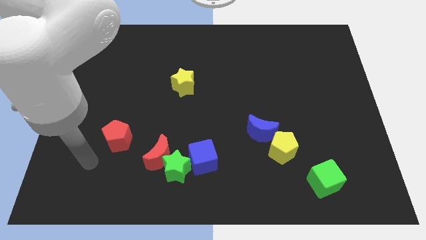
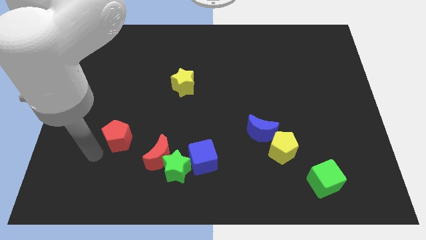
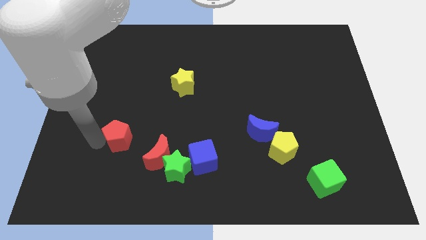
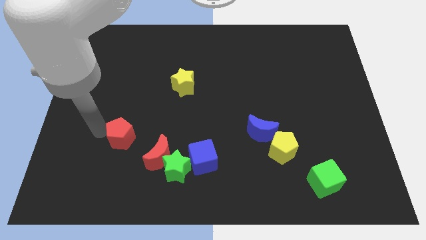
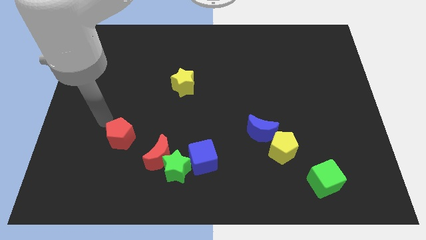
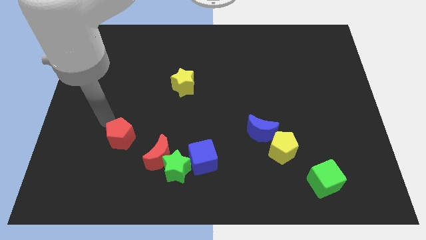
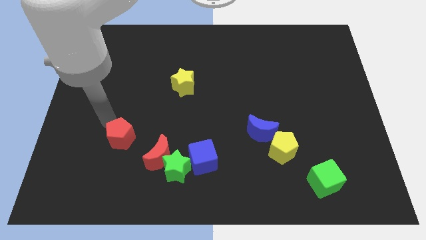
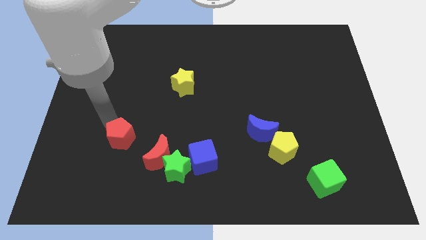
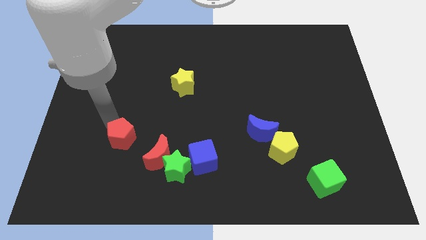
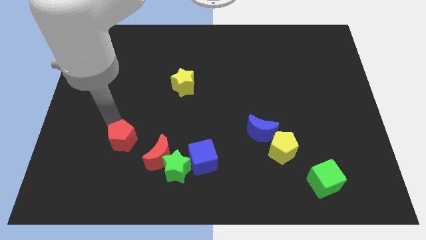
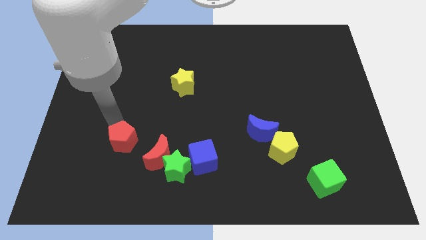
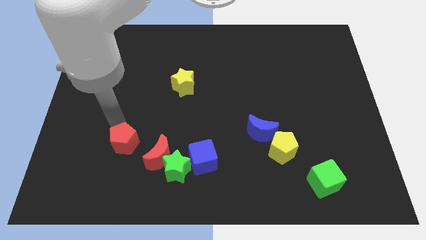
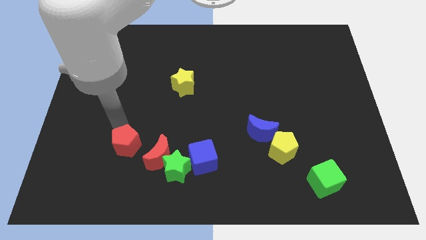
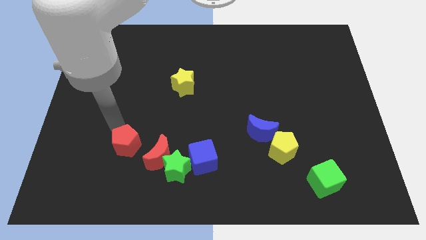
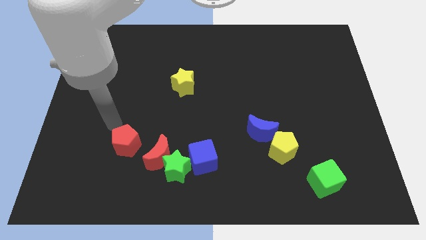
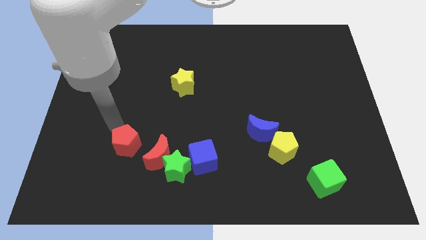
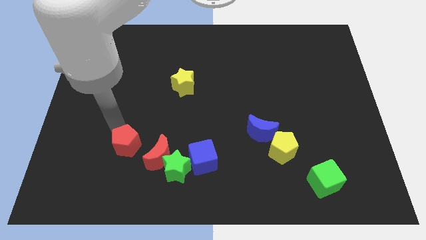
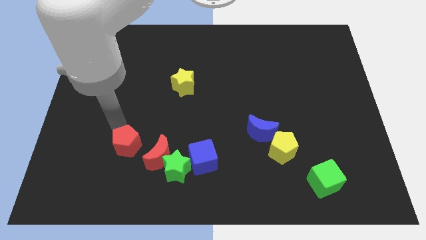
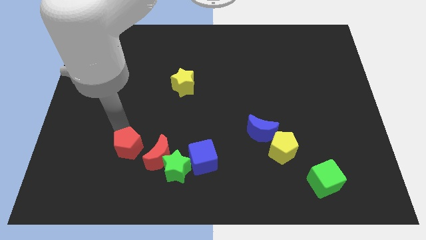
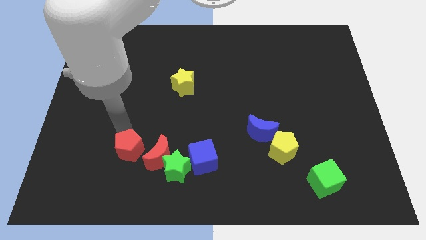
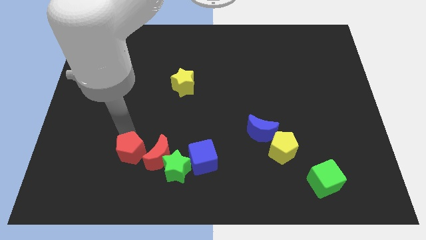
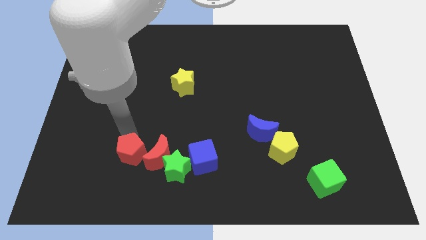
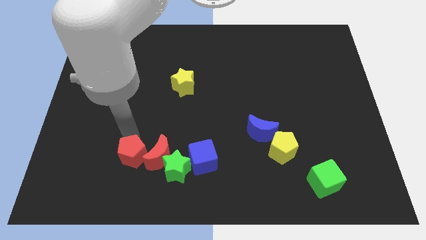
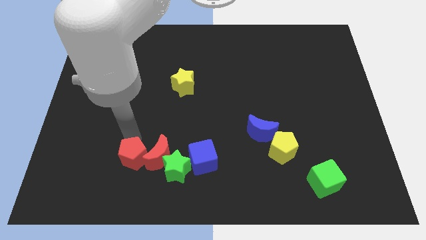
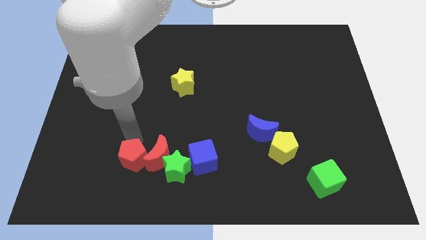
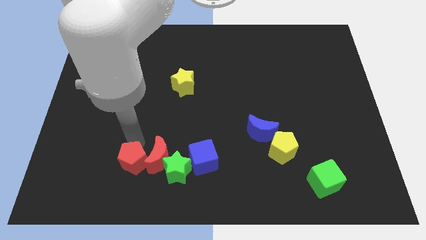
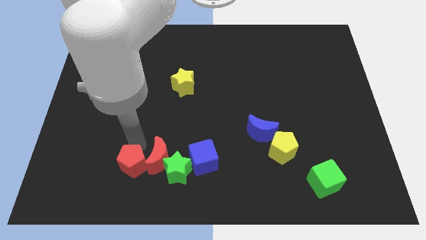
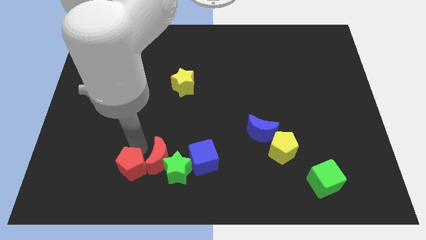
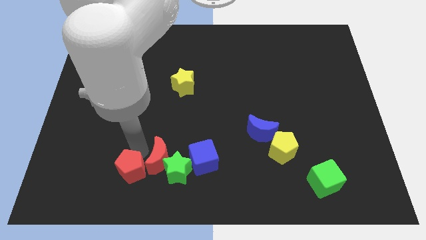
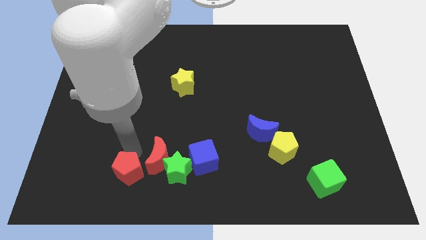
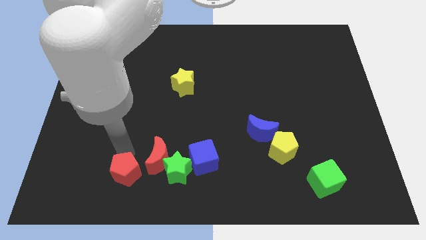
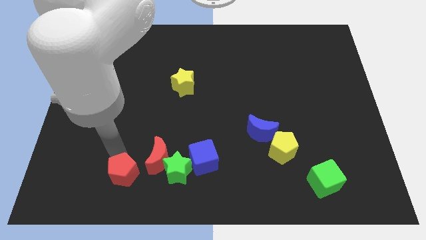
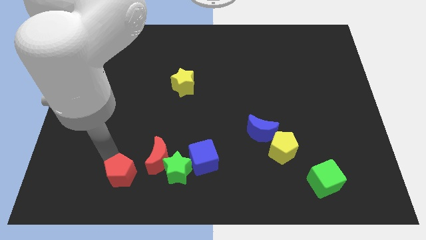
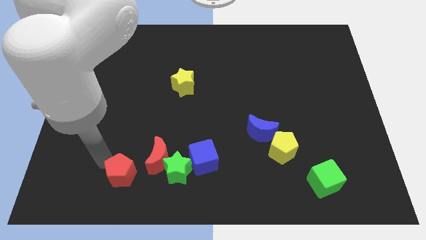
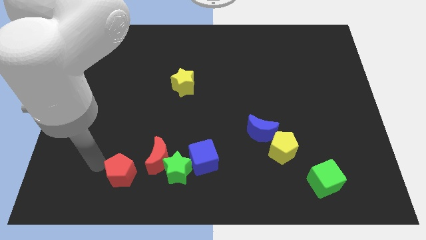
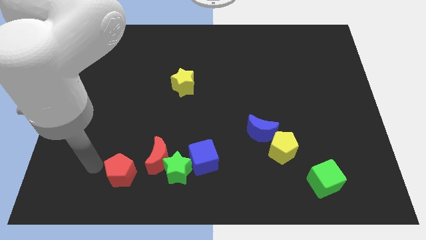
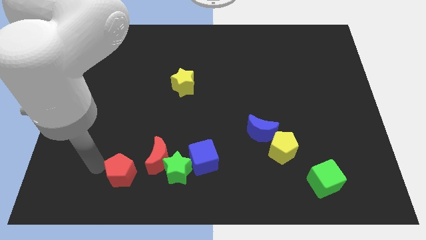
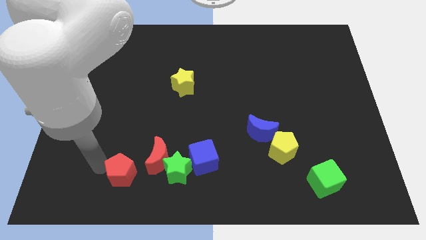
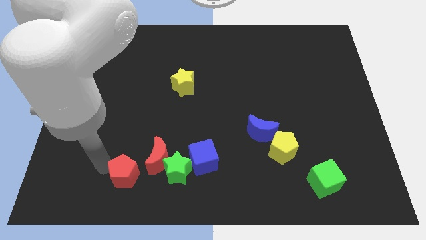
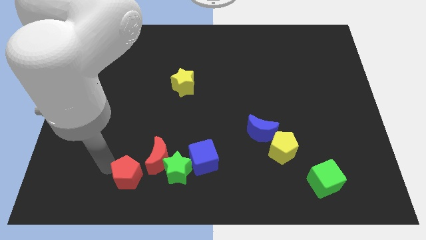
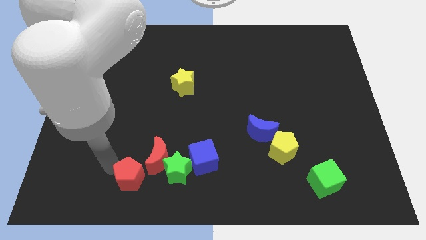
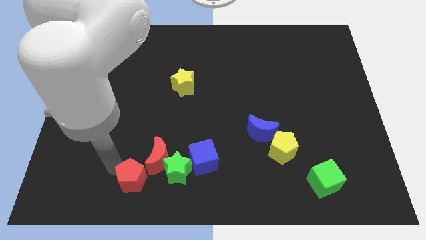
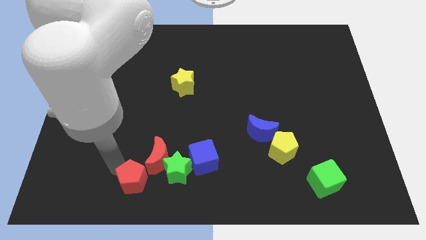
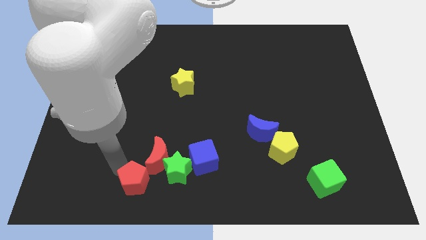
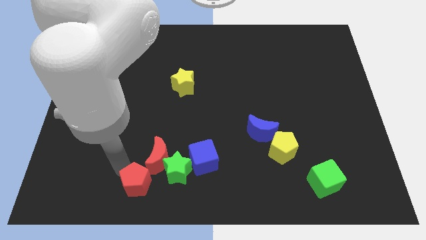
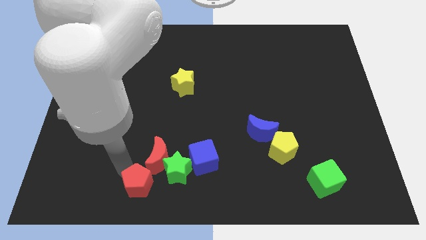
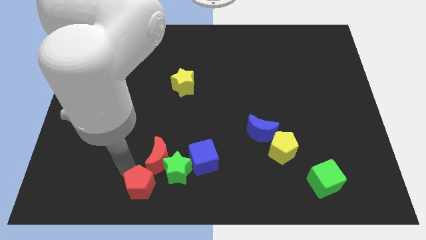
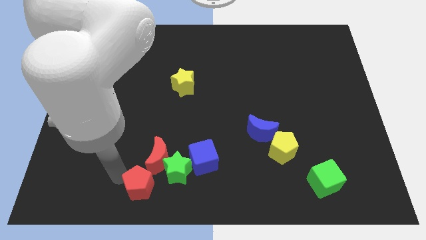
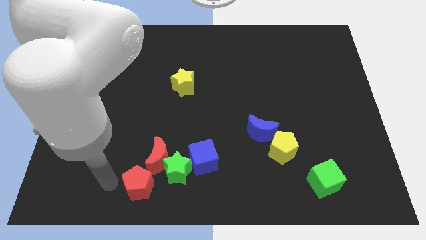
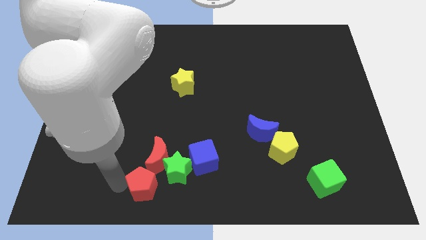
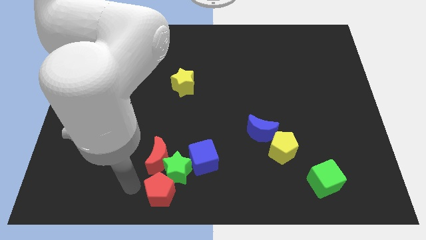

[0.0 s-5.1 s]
move the red pentagon to the bottom side

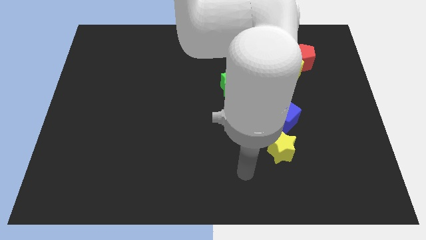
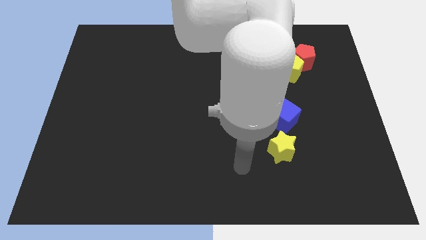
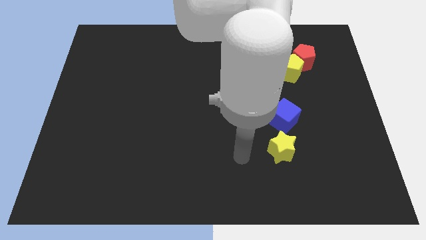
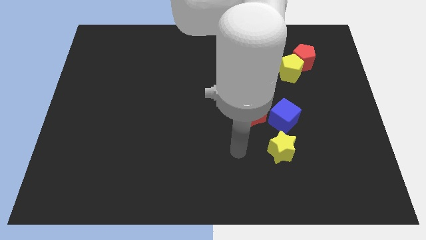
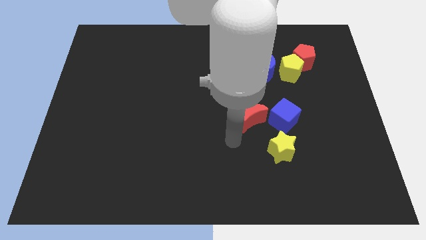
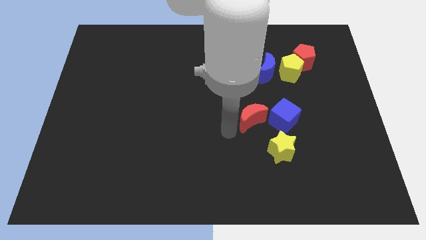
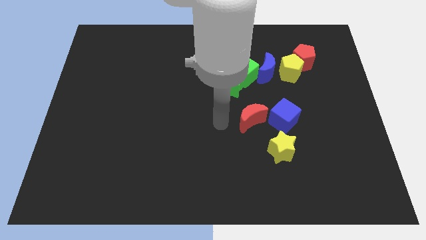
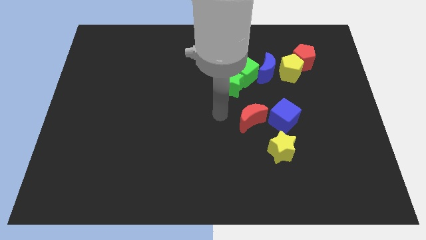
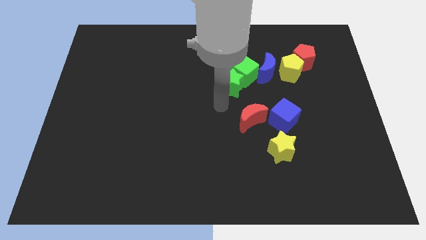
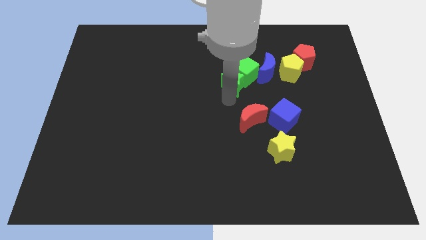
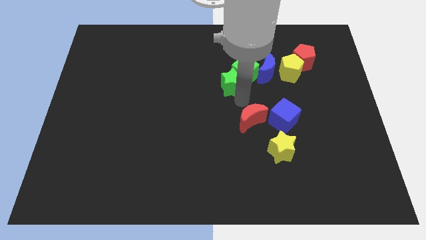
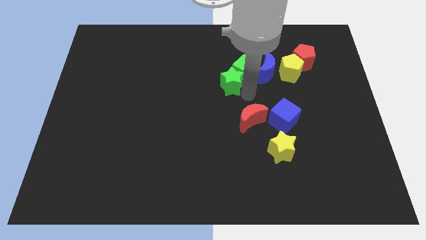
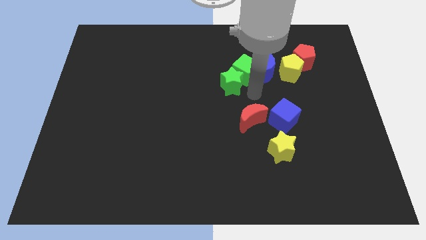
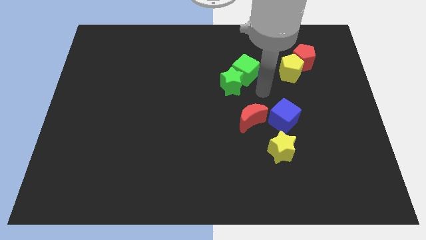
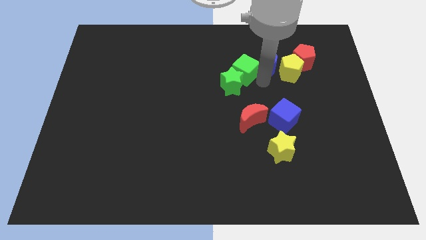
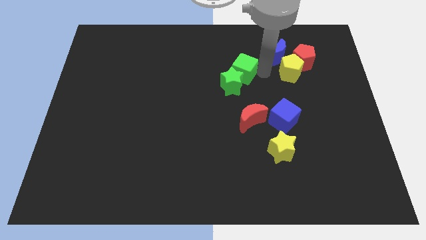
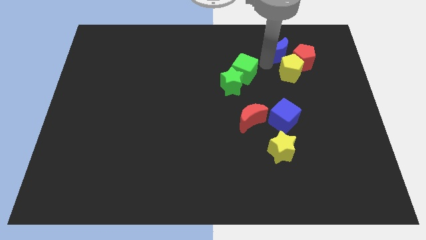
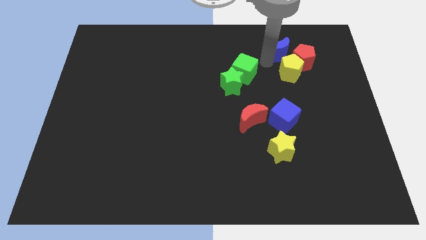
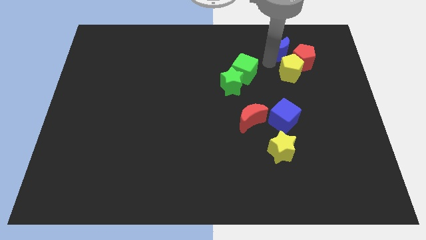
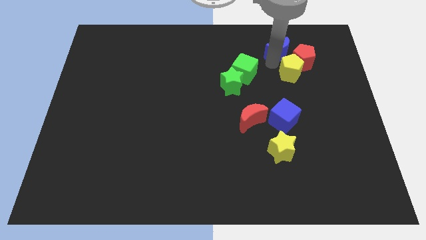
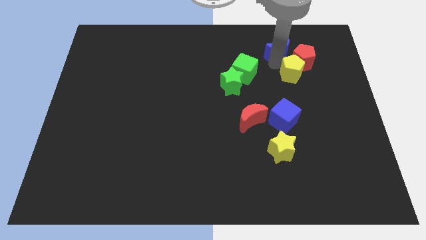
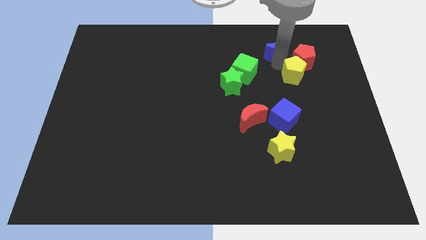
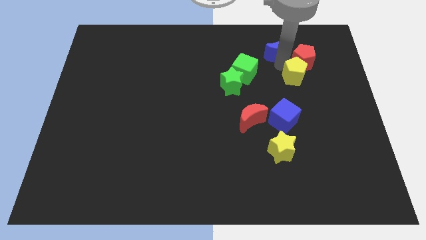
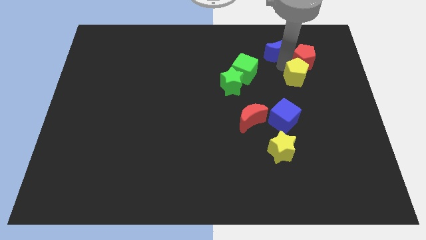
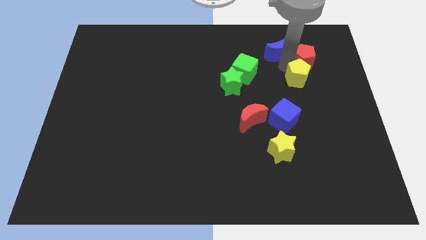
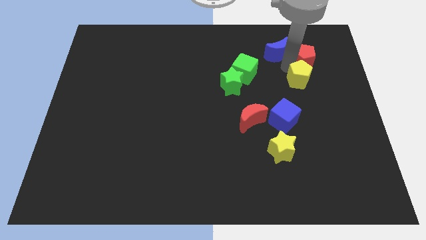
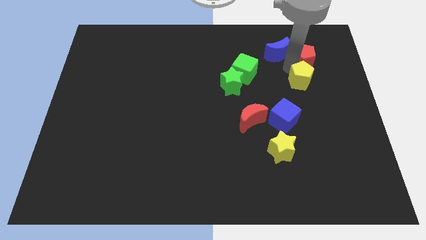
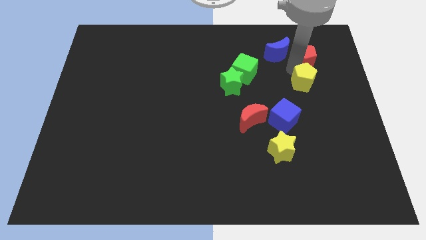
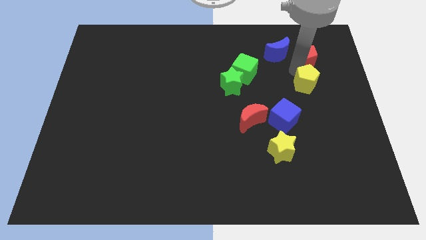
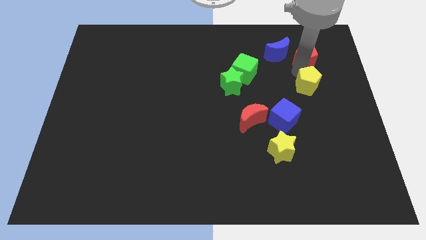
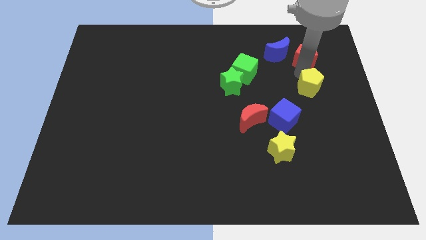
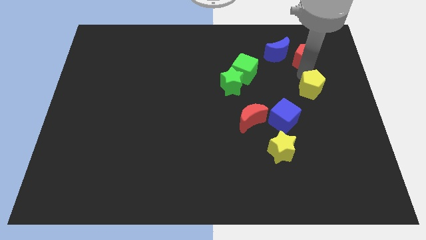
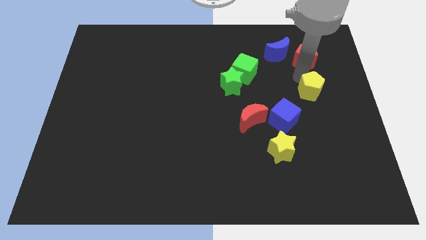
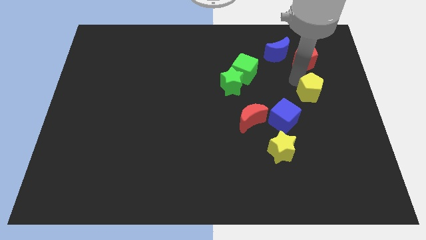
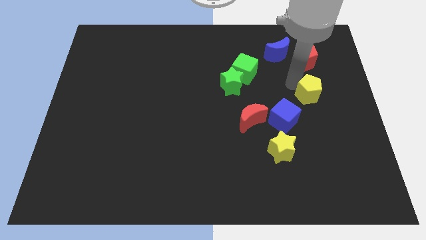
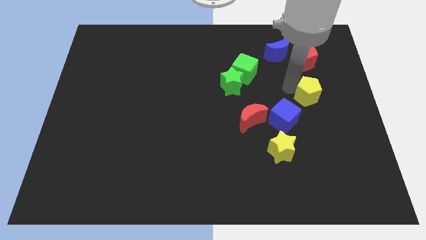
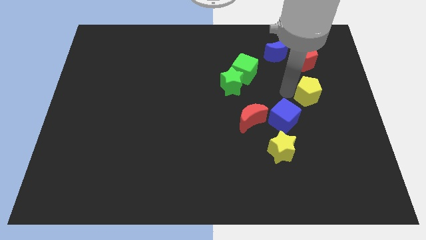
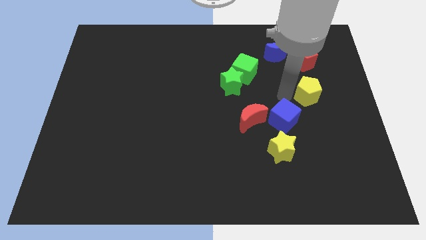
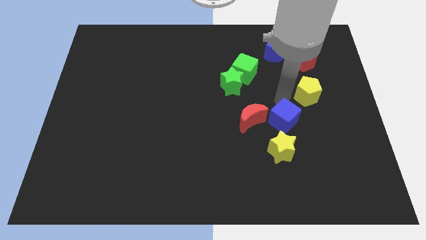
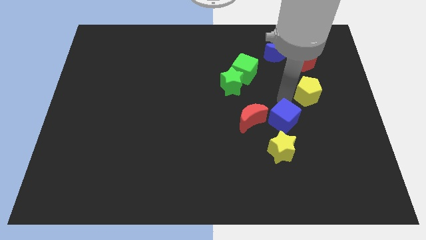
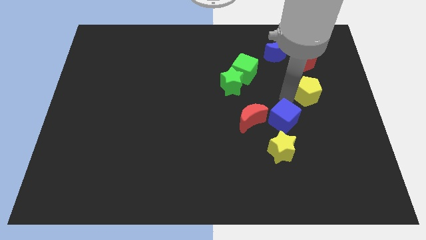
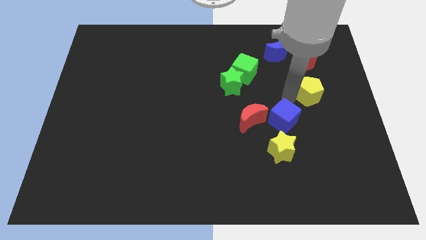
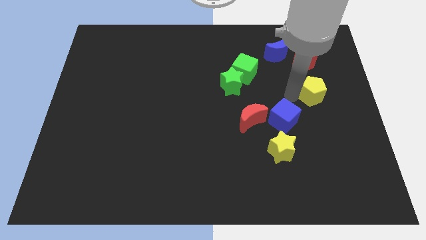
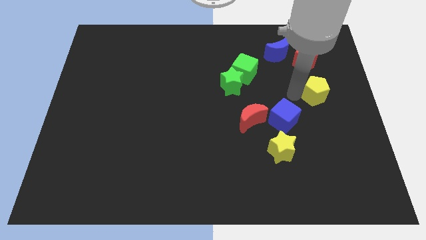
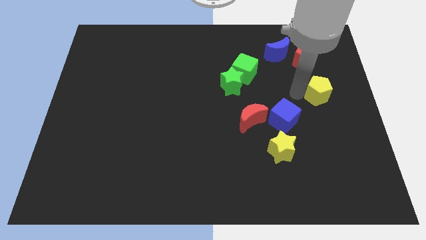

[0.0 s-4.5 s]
slide the yellow pentagon to the right side
